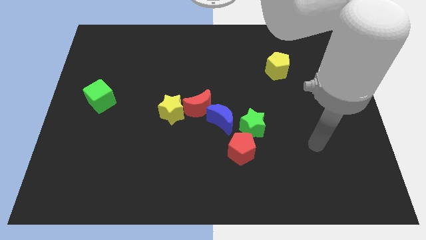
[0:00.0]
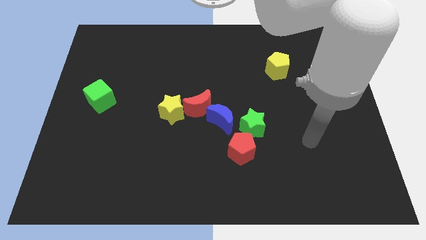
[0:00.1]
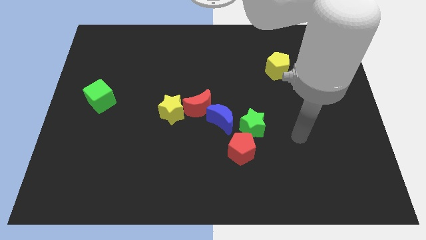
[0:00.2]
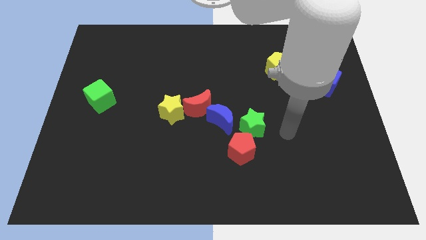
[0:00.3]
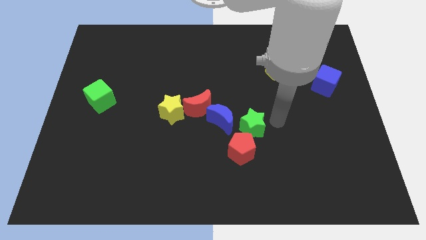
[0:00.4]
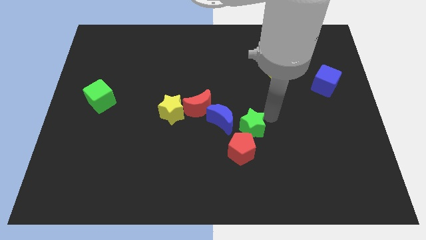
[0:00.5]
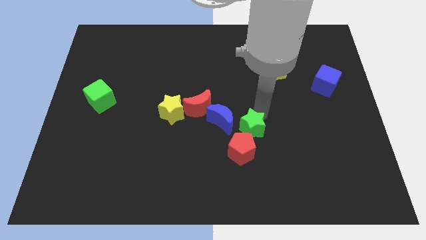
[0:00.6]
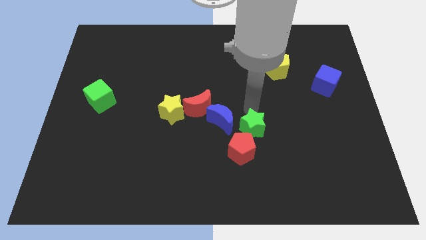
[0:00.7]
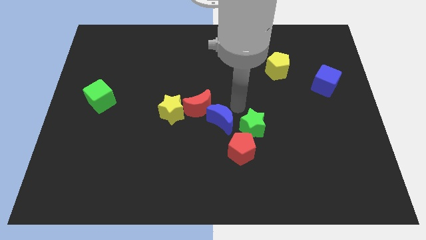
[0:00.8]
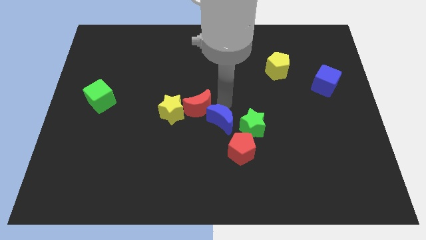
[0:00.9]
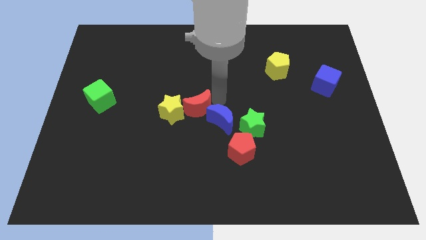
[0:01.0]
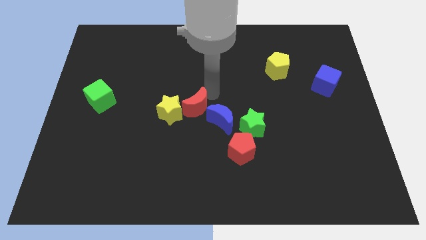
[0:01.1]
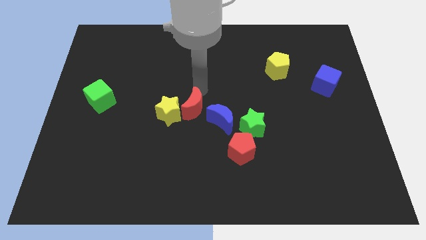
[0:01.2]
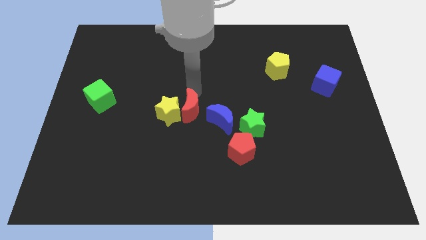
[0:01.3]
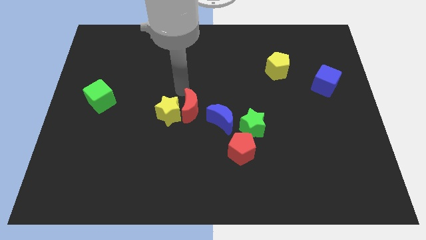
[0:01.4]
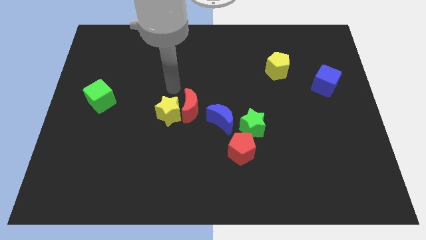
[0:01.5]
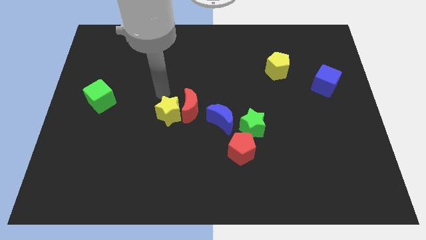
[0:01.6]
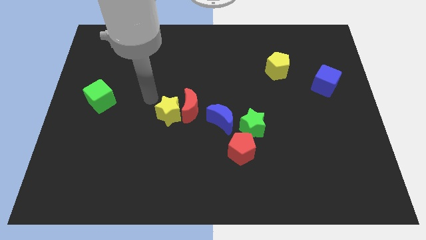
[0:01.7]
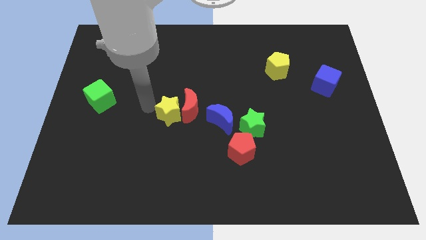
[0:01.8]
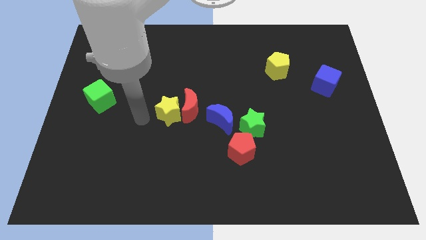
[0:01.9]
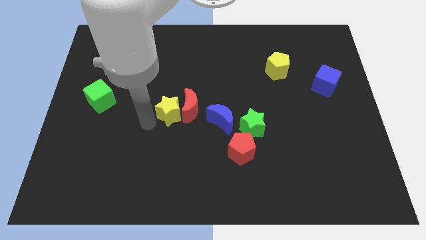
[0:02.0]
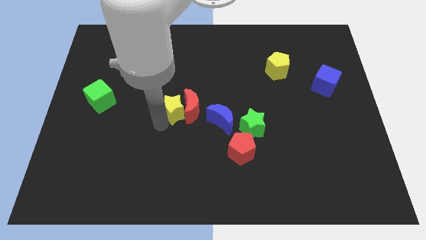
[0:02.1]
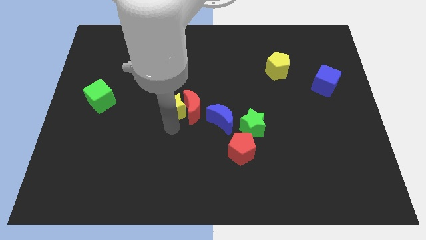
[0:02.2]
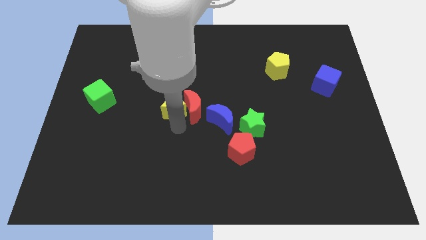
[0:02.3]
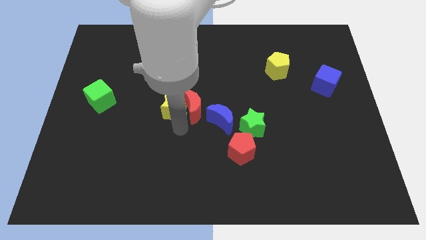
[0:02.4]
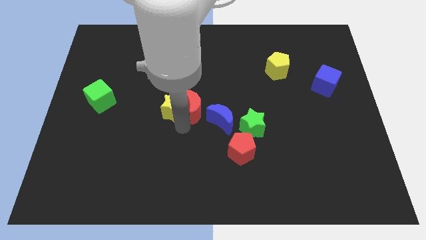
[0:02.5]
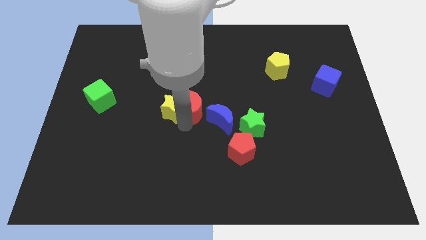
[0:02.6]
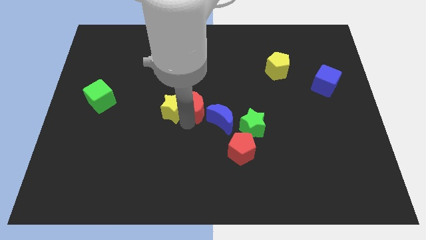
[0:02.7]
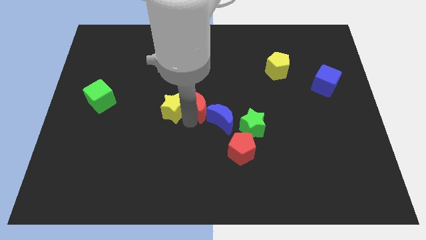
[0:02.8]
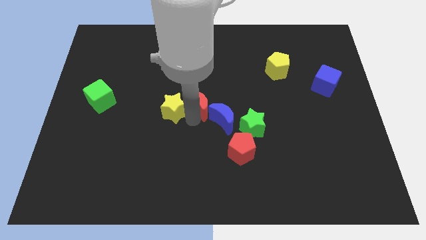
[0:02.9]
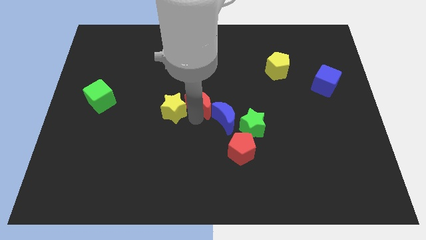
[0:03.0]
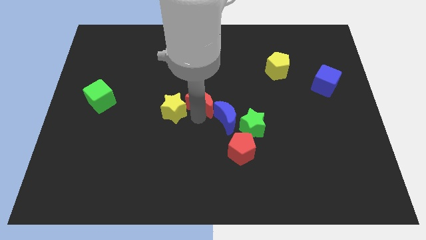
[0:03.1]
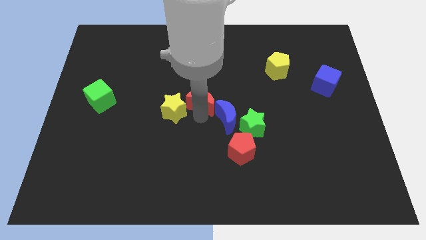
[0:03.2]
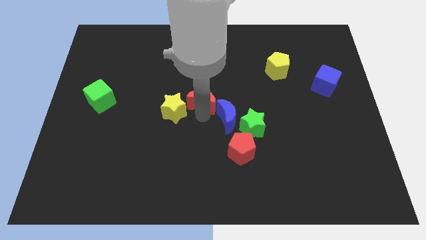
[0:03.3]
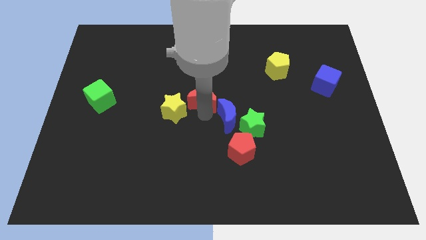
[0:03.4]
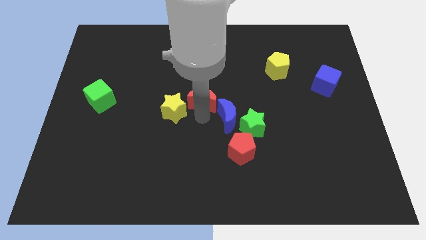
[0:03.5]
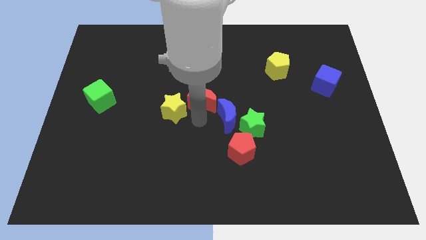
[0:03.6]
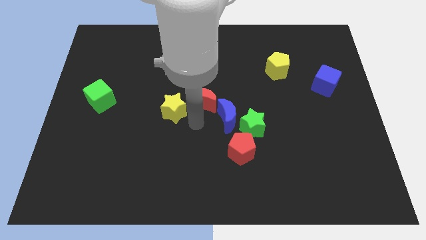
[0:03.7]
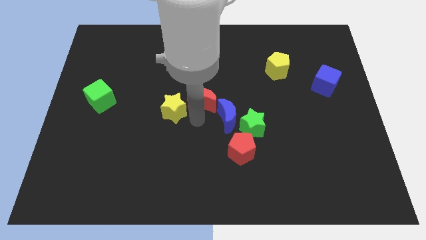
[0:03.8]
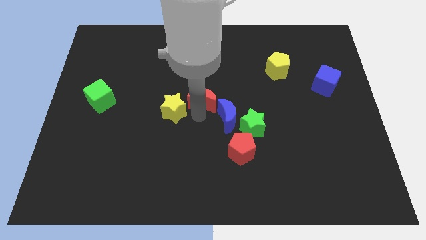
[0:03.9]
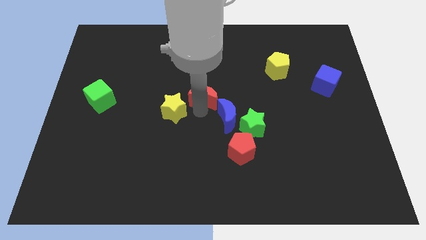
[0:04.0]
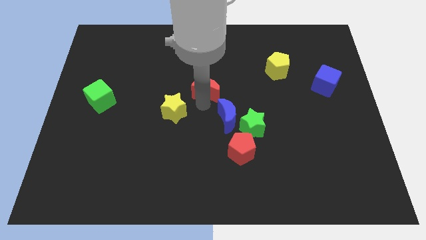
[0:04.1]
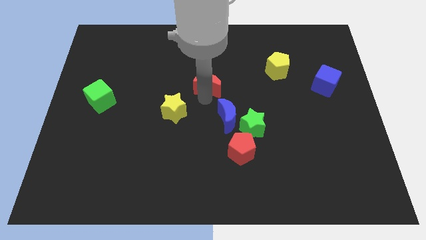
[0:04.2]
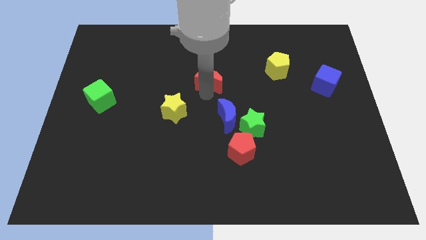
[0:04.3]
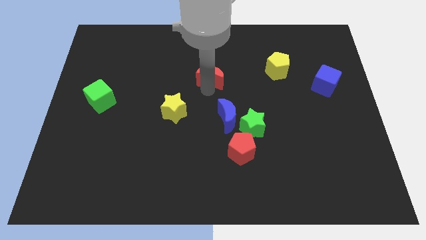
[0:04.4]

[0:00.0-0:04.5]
separate the red moon from the blue moon and yellow star

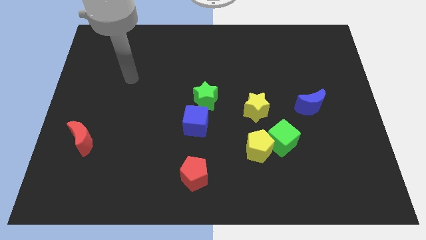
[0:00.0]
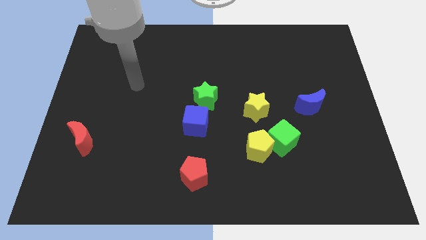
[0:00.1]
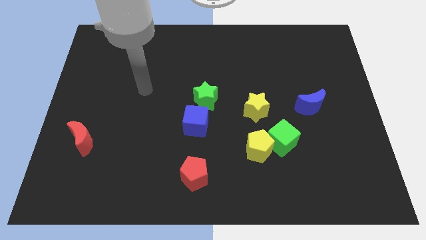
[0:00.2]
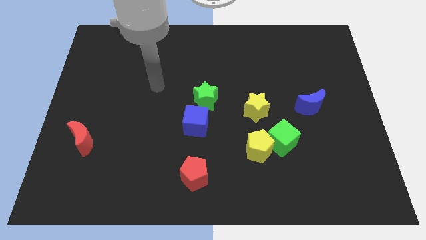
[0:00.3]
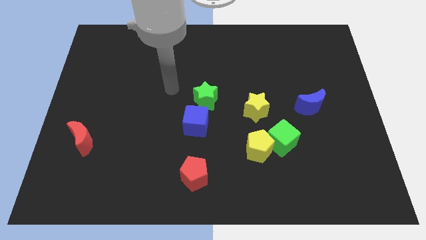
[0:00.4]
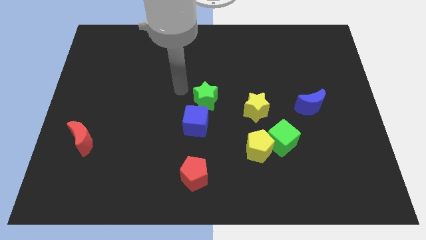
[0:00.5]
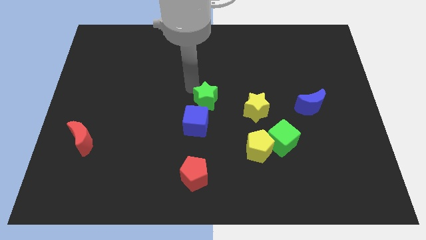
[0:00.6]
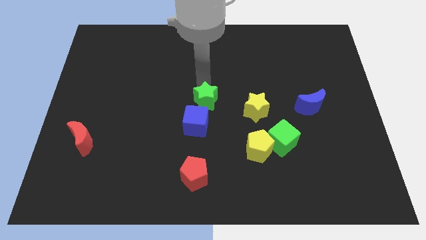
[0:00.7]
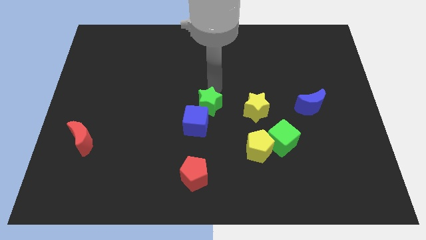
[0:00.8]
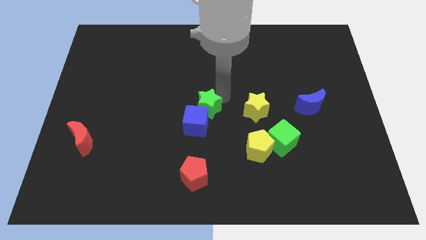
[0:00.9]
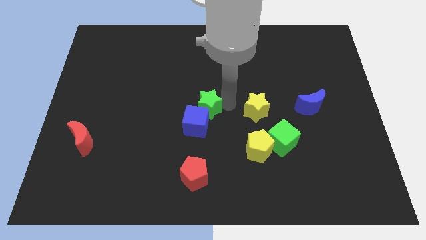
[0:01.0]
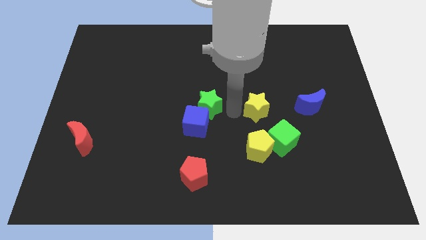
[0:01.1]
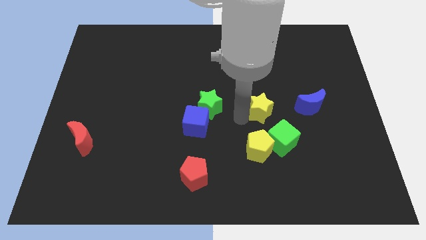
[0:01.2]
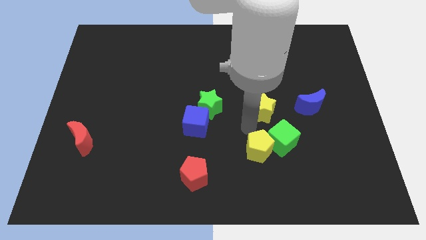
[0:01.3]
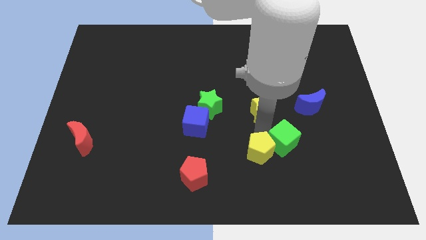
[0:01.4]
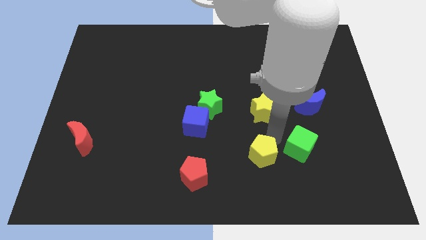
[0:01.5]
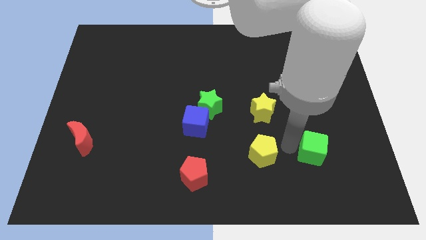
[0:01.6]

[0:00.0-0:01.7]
move the yellow pentagon away from the green cube

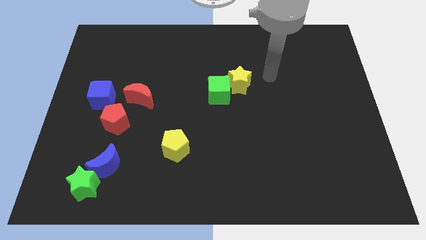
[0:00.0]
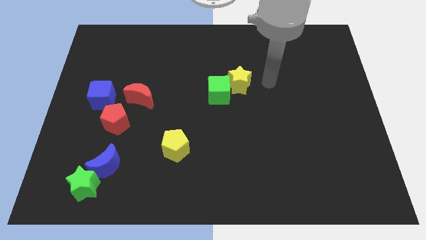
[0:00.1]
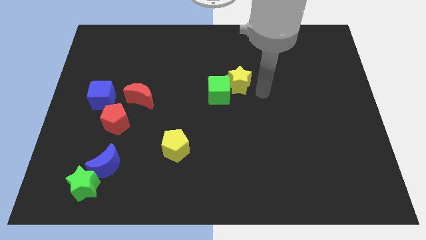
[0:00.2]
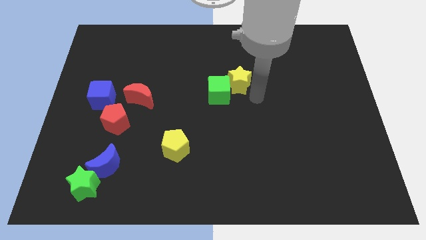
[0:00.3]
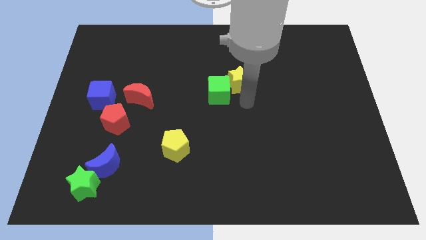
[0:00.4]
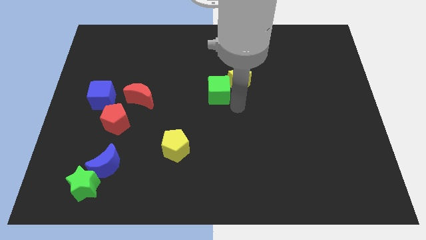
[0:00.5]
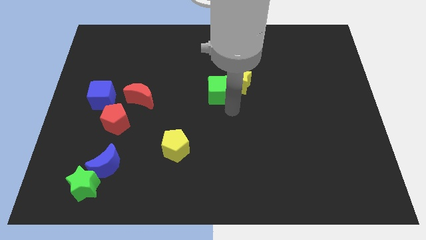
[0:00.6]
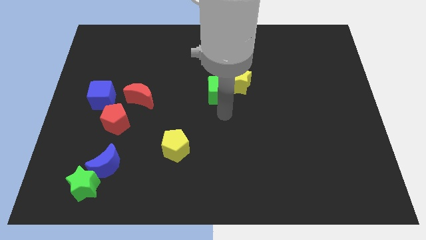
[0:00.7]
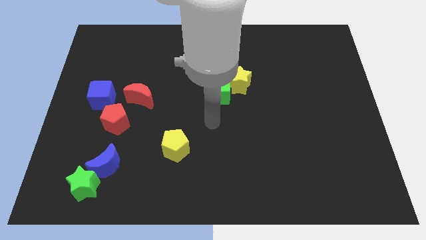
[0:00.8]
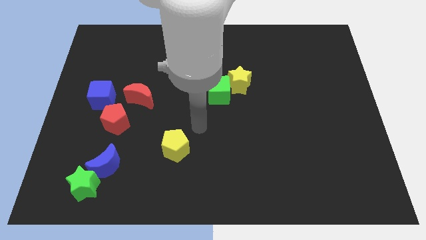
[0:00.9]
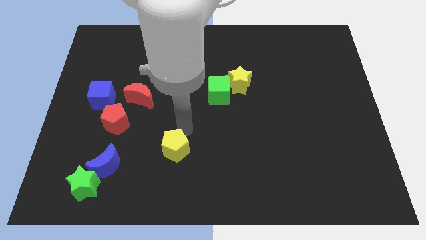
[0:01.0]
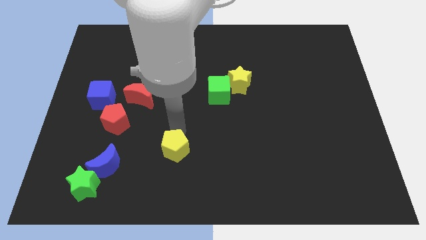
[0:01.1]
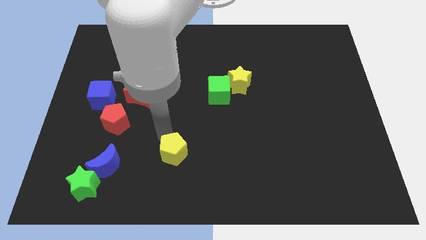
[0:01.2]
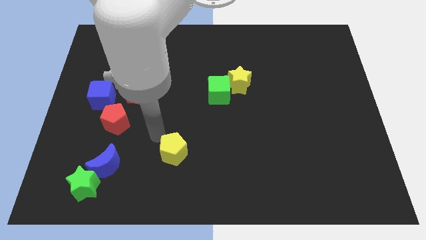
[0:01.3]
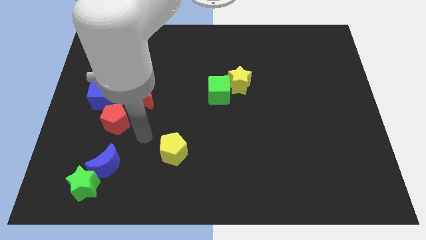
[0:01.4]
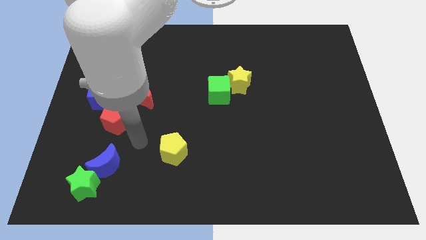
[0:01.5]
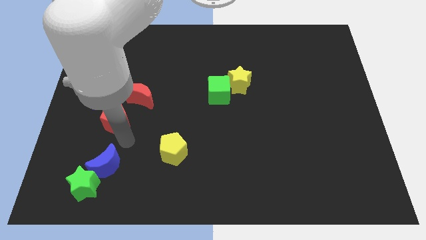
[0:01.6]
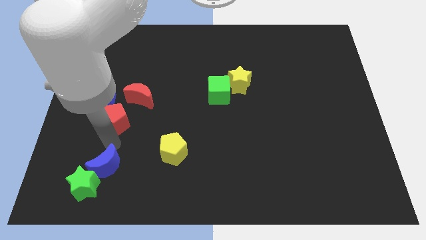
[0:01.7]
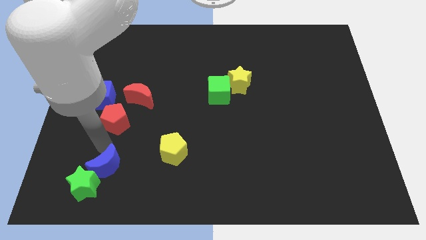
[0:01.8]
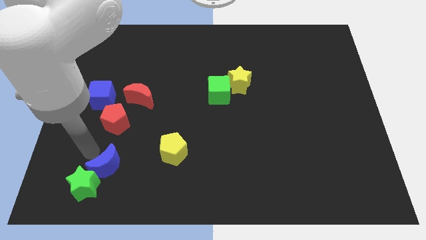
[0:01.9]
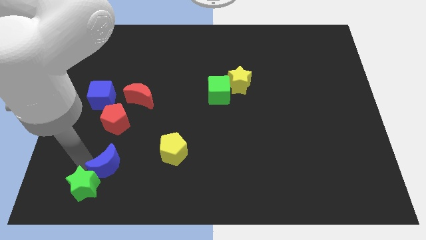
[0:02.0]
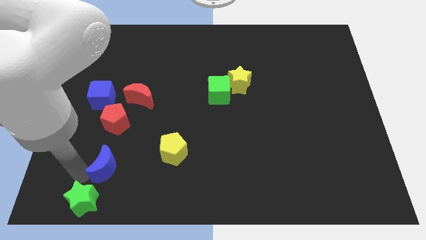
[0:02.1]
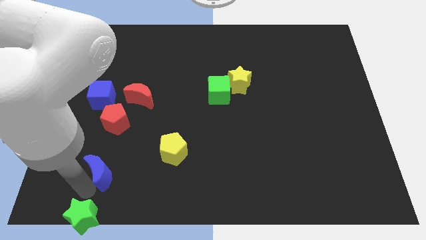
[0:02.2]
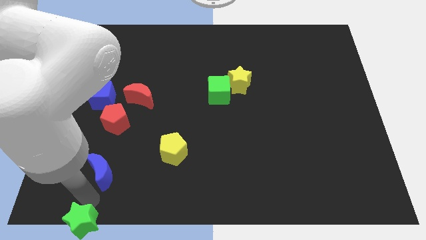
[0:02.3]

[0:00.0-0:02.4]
pull the blue moon apart from the green star

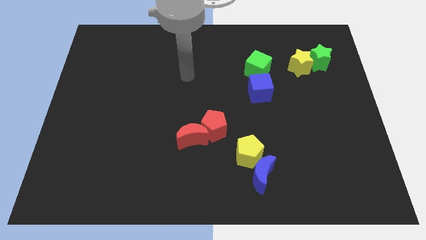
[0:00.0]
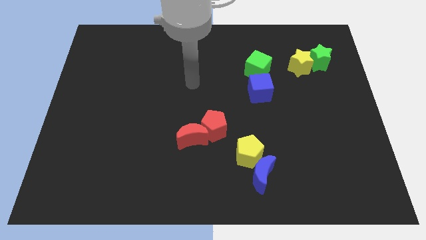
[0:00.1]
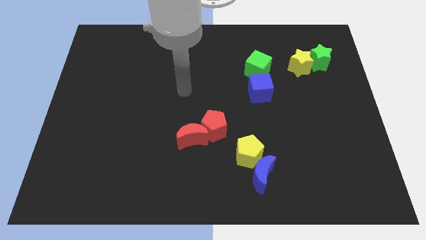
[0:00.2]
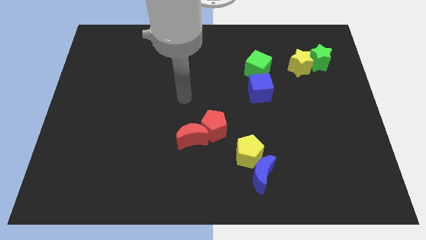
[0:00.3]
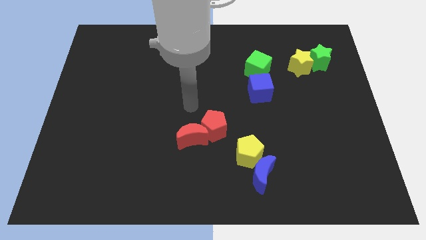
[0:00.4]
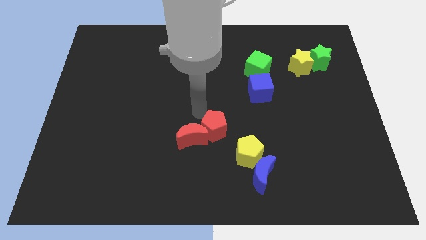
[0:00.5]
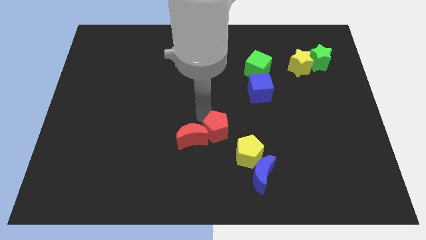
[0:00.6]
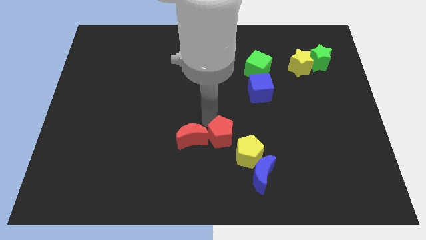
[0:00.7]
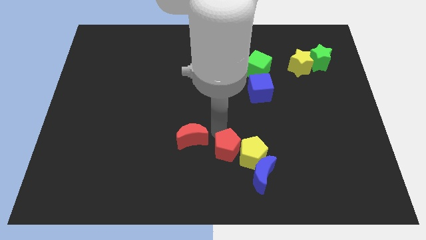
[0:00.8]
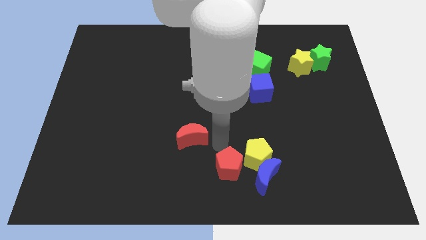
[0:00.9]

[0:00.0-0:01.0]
pull the red moon apart from the red pentagon
